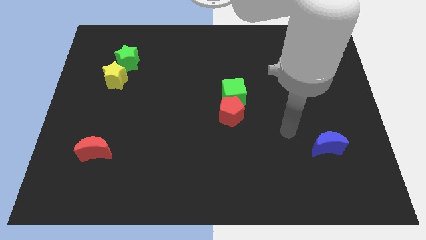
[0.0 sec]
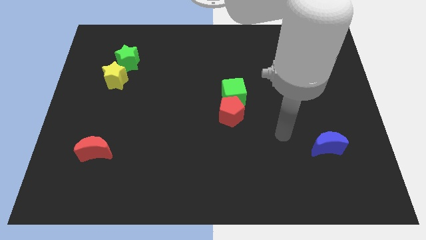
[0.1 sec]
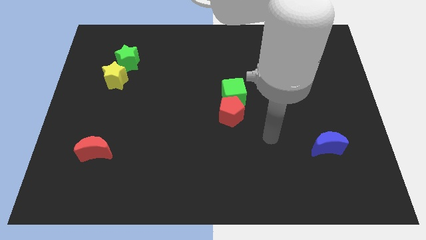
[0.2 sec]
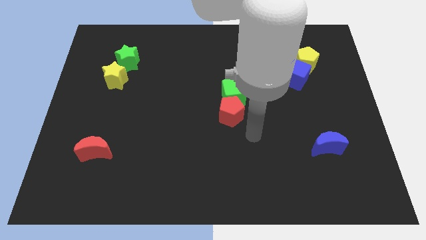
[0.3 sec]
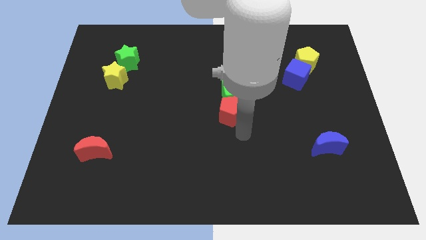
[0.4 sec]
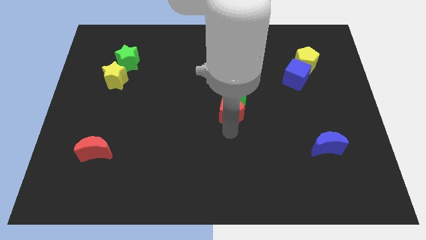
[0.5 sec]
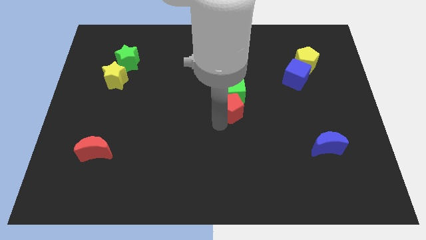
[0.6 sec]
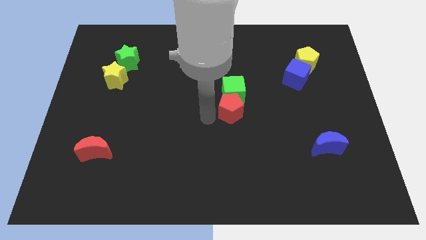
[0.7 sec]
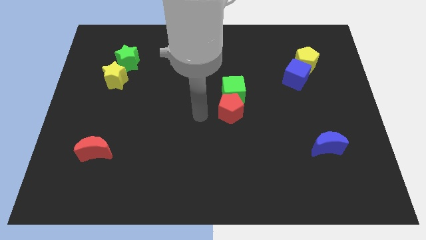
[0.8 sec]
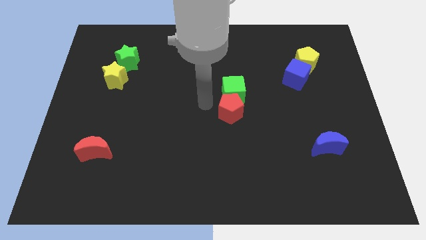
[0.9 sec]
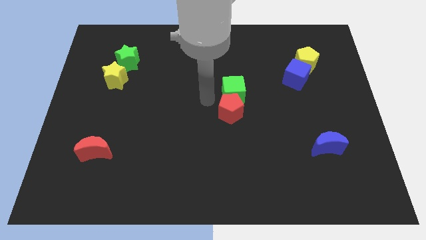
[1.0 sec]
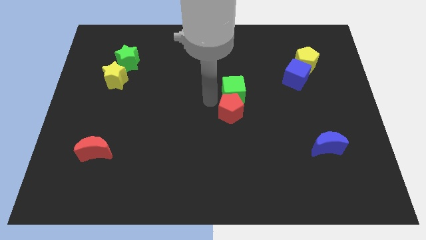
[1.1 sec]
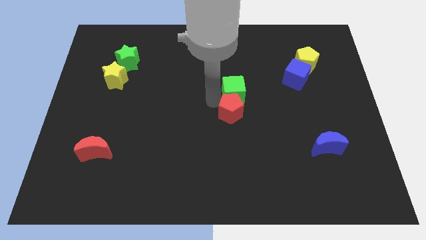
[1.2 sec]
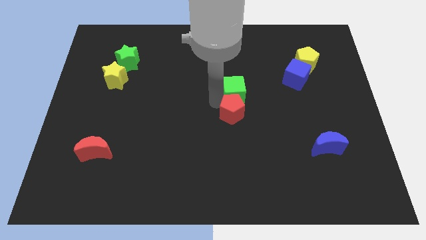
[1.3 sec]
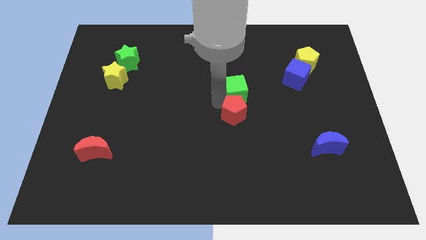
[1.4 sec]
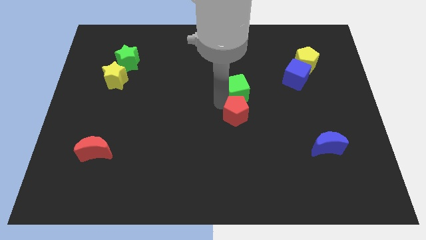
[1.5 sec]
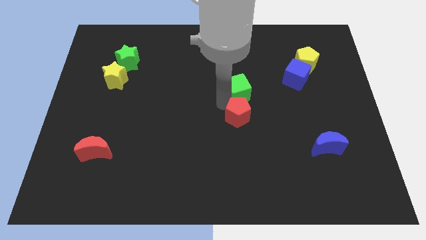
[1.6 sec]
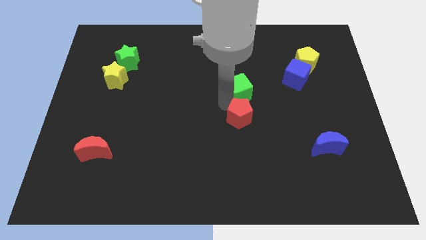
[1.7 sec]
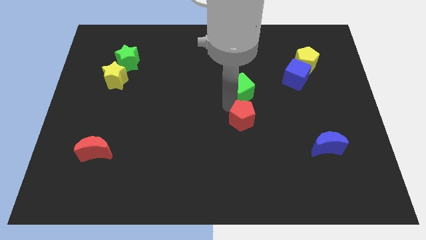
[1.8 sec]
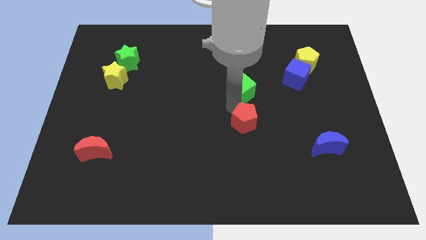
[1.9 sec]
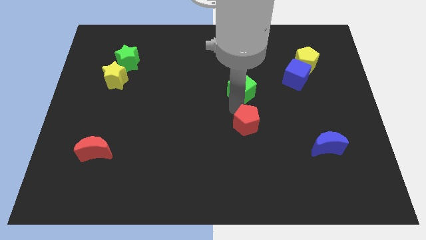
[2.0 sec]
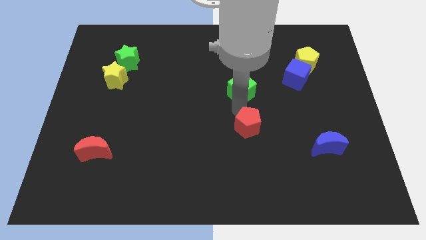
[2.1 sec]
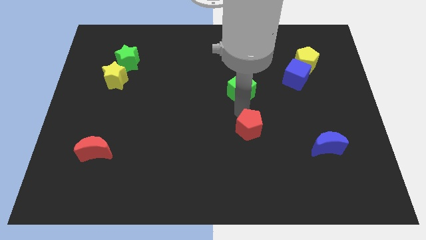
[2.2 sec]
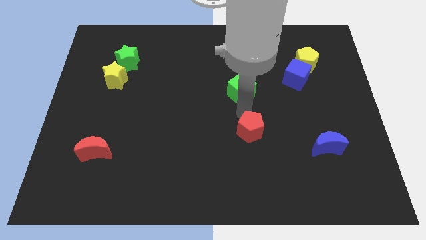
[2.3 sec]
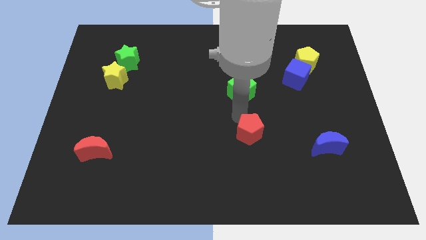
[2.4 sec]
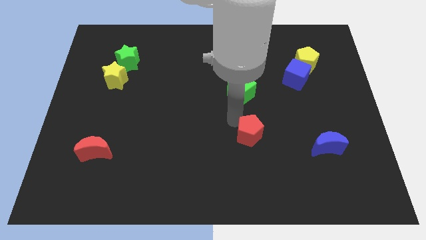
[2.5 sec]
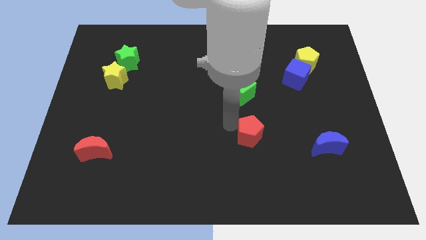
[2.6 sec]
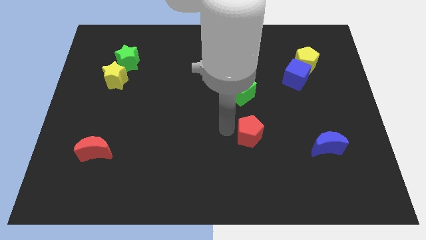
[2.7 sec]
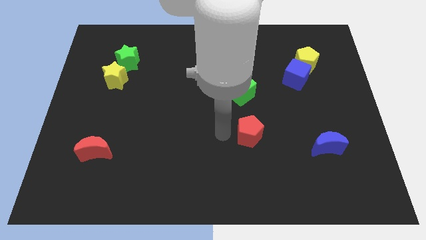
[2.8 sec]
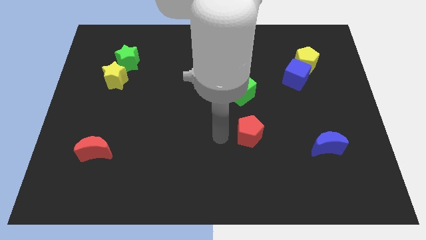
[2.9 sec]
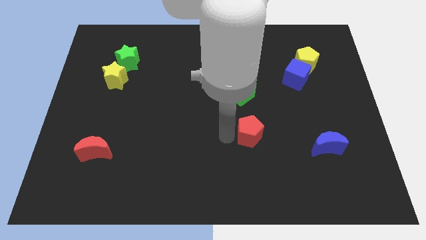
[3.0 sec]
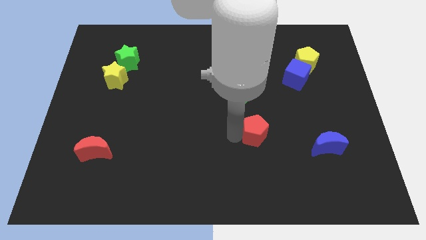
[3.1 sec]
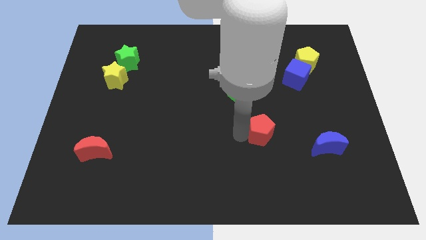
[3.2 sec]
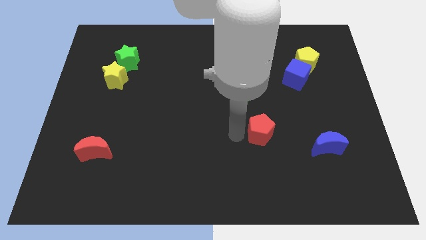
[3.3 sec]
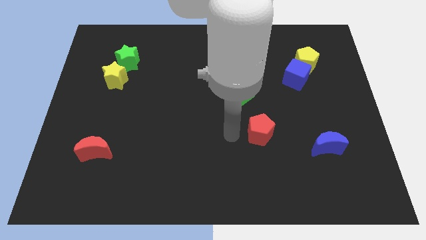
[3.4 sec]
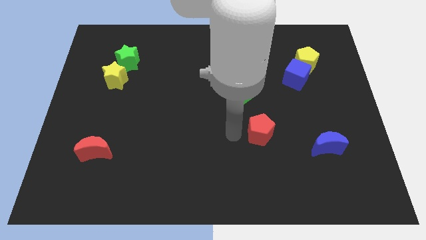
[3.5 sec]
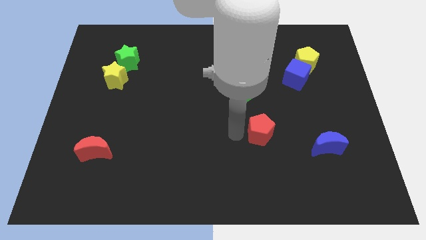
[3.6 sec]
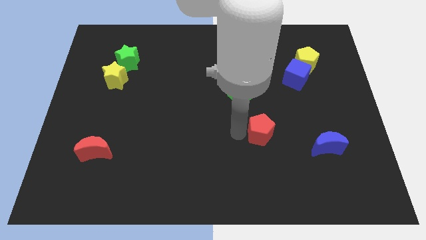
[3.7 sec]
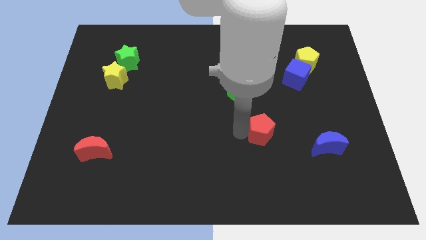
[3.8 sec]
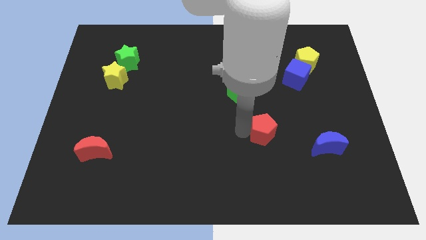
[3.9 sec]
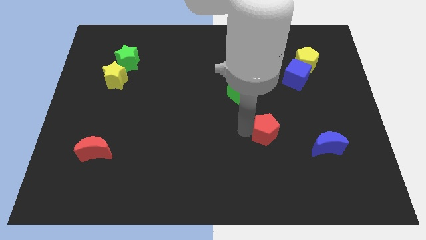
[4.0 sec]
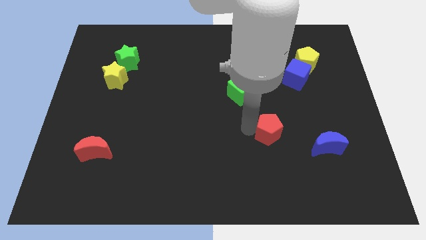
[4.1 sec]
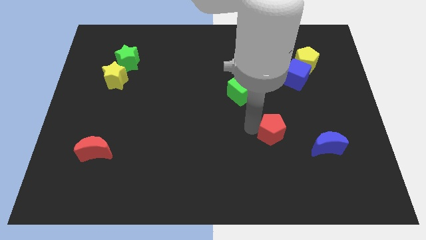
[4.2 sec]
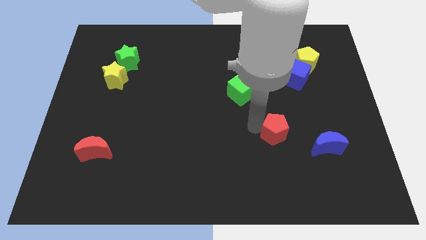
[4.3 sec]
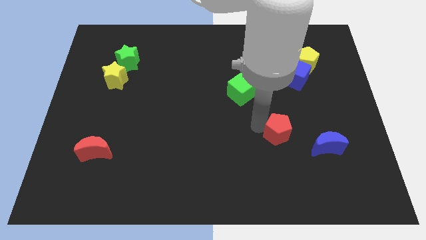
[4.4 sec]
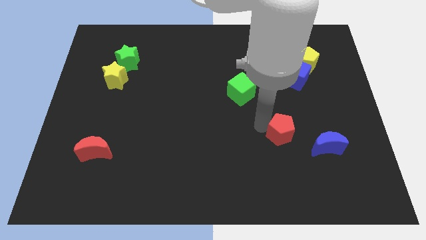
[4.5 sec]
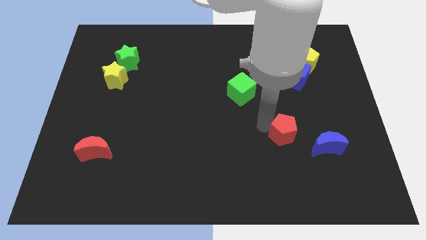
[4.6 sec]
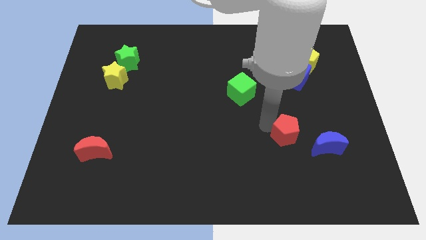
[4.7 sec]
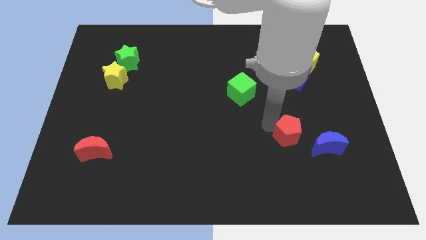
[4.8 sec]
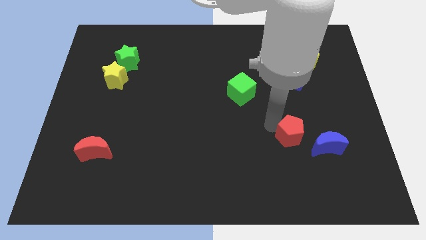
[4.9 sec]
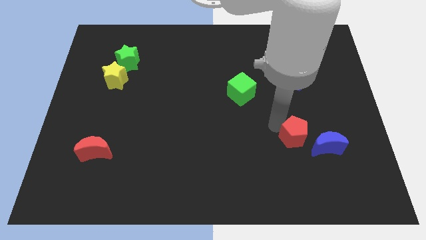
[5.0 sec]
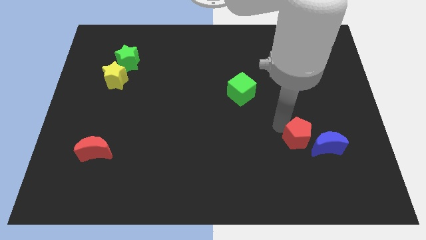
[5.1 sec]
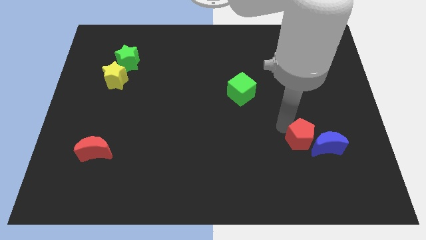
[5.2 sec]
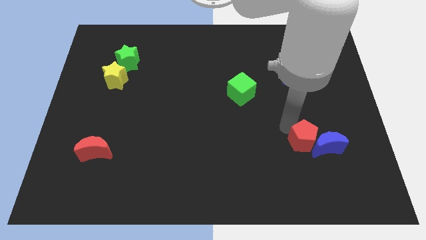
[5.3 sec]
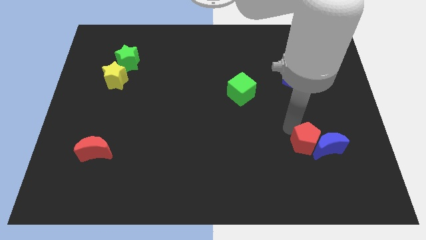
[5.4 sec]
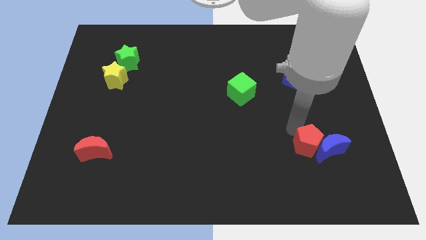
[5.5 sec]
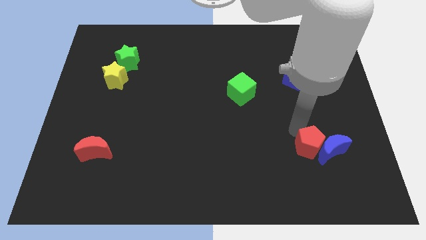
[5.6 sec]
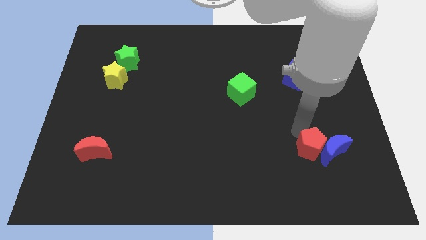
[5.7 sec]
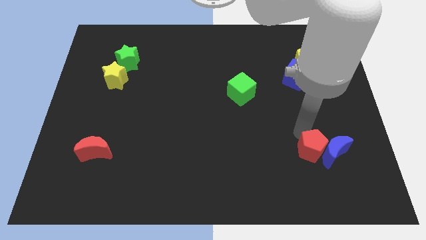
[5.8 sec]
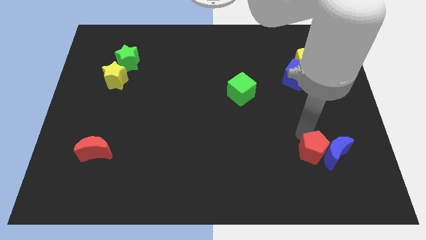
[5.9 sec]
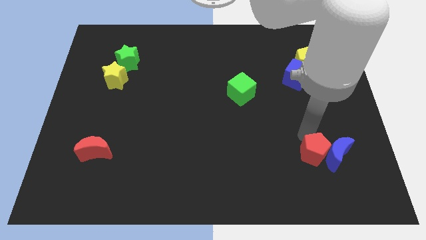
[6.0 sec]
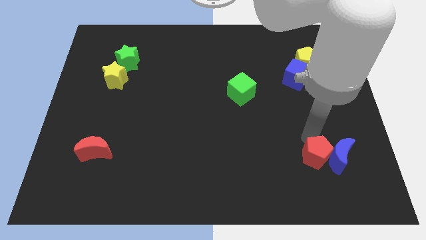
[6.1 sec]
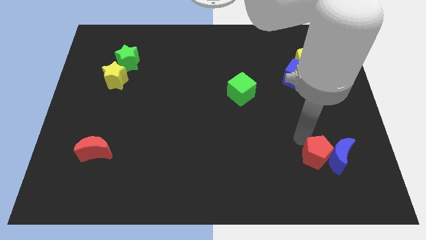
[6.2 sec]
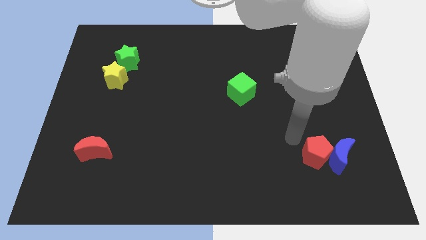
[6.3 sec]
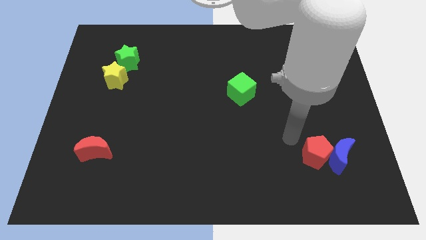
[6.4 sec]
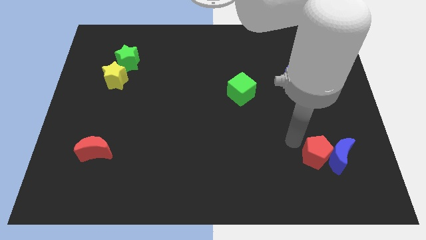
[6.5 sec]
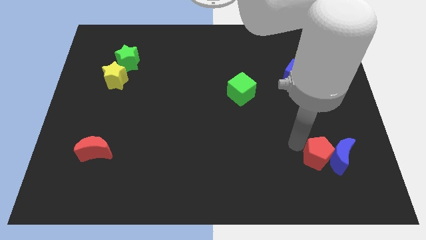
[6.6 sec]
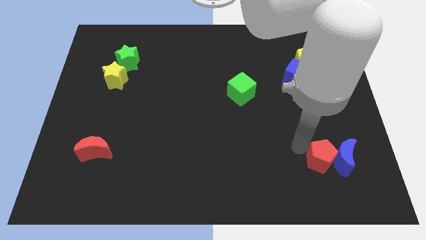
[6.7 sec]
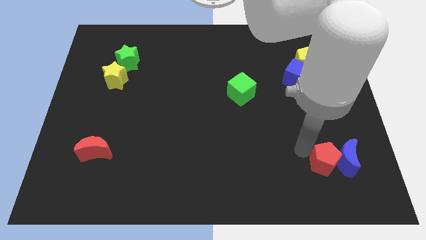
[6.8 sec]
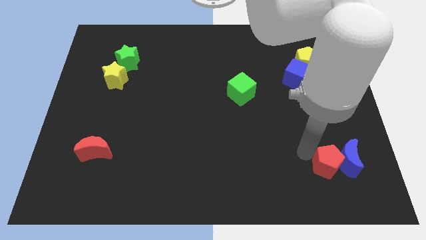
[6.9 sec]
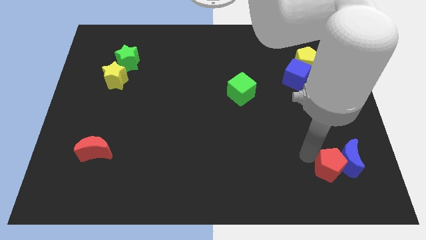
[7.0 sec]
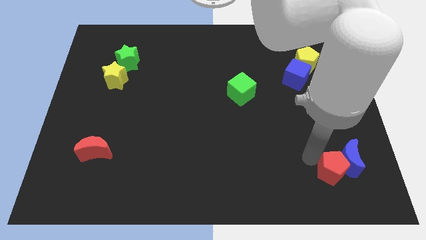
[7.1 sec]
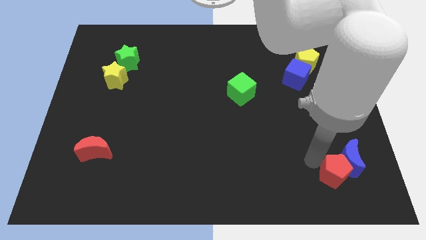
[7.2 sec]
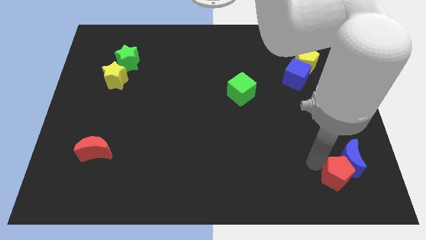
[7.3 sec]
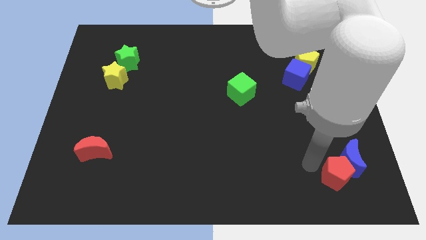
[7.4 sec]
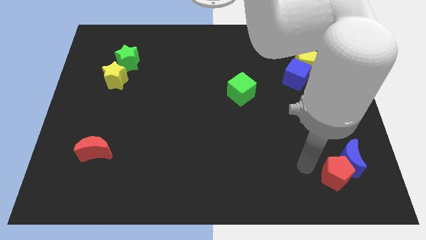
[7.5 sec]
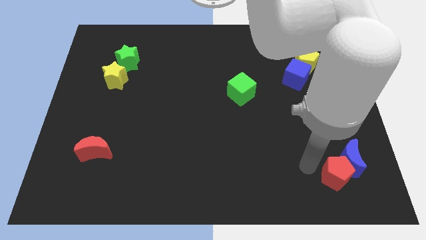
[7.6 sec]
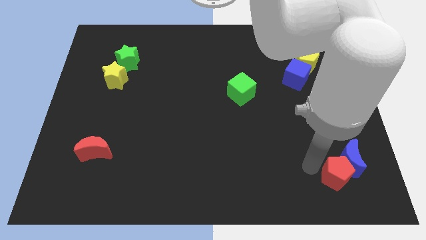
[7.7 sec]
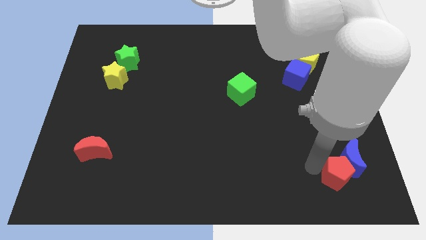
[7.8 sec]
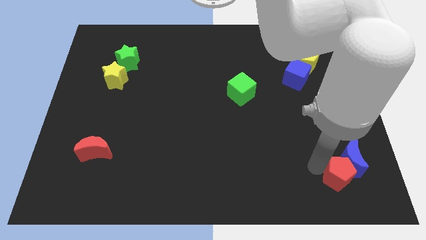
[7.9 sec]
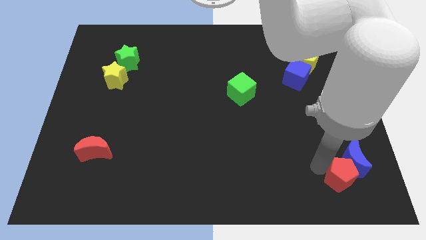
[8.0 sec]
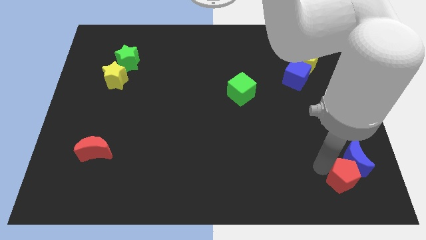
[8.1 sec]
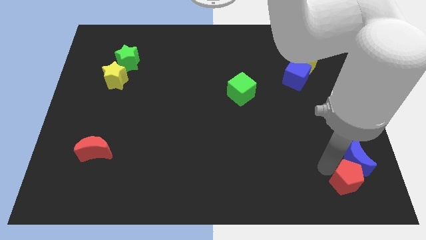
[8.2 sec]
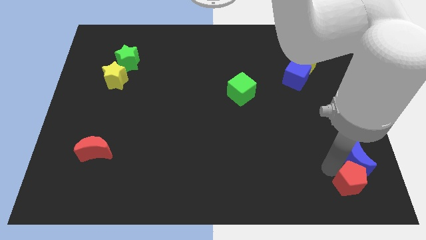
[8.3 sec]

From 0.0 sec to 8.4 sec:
put the red pentagon to the bottom right

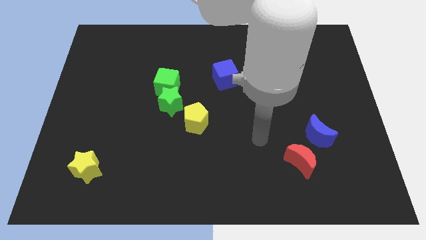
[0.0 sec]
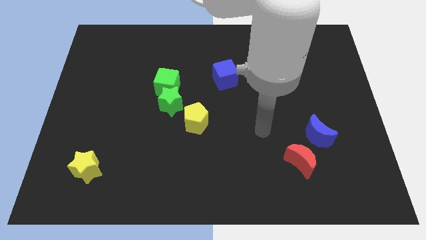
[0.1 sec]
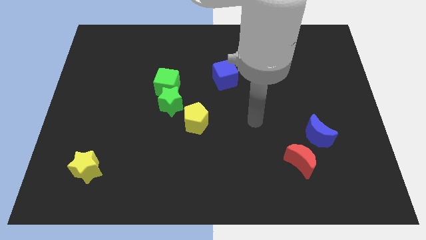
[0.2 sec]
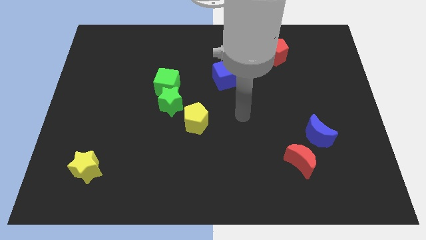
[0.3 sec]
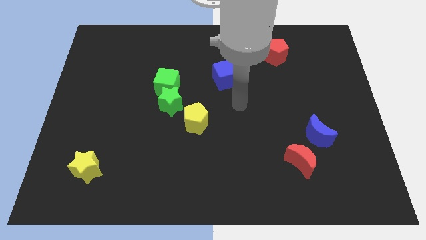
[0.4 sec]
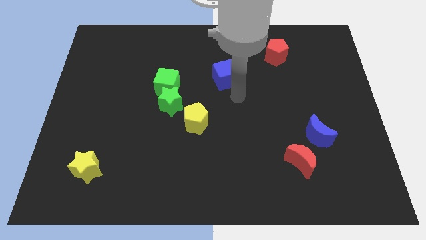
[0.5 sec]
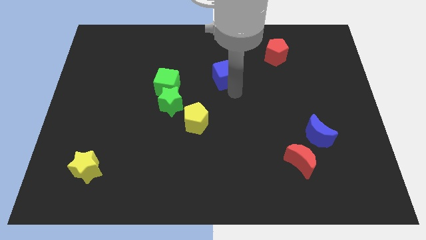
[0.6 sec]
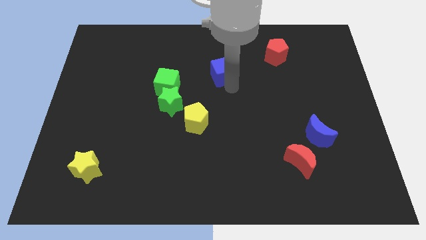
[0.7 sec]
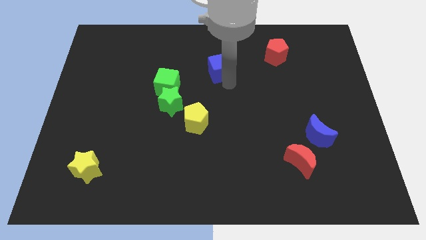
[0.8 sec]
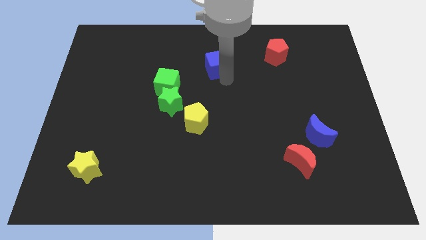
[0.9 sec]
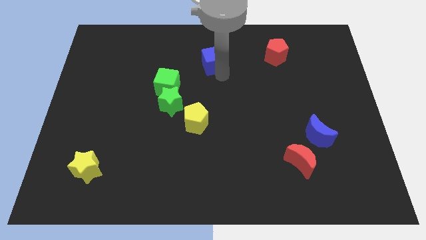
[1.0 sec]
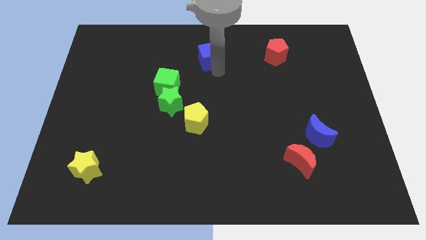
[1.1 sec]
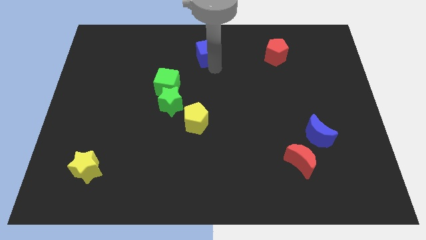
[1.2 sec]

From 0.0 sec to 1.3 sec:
slide the blue cube to the towards your base
